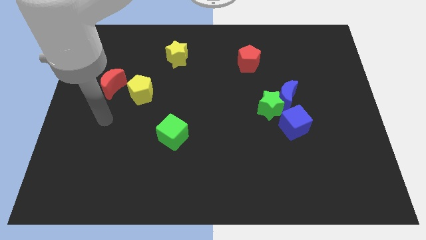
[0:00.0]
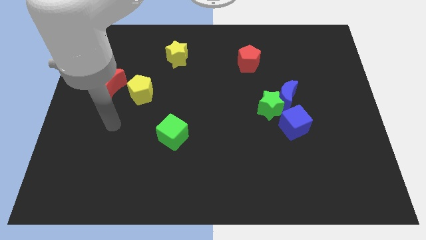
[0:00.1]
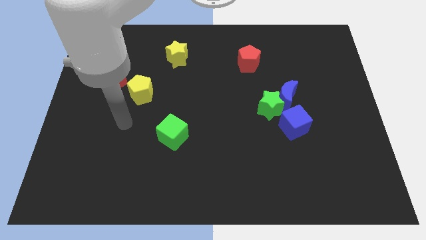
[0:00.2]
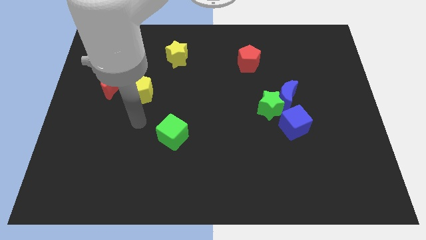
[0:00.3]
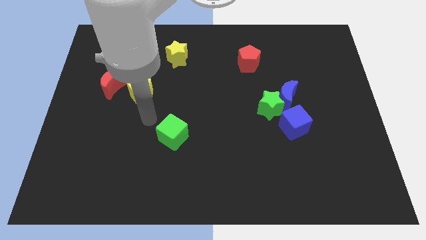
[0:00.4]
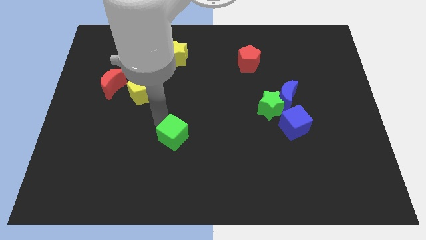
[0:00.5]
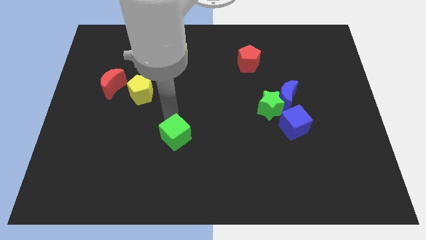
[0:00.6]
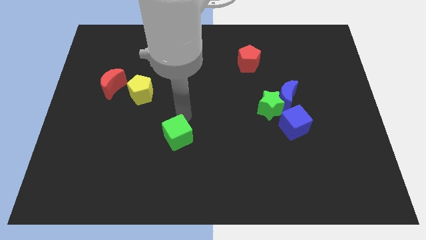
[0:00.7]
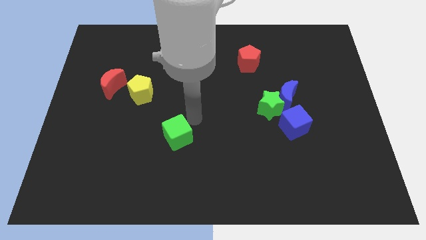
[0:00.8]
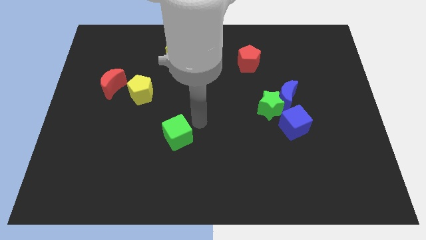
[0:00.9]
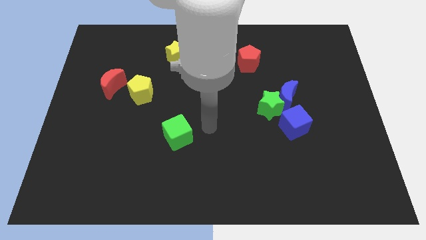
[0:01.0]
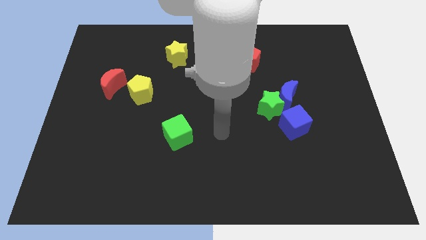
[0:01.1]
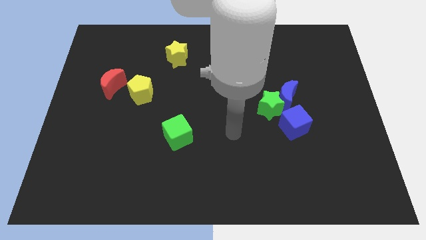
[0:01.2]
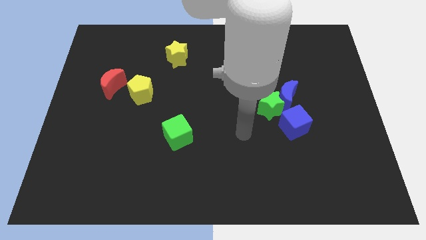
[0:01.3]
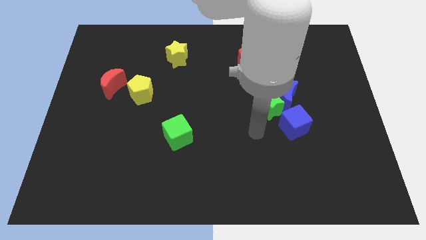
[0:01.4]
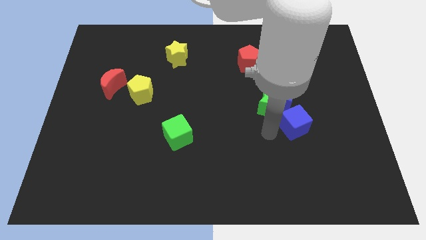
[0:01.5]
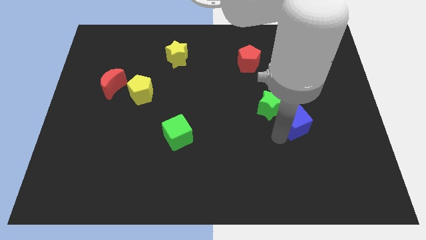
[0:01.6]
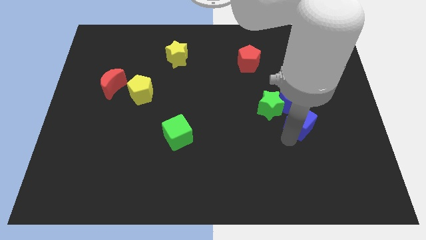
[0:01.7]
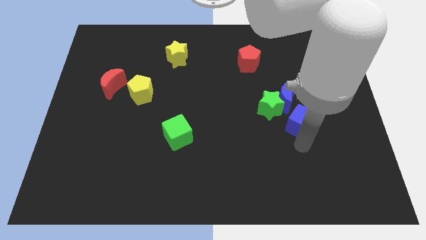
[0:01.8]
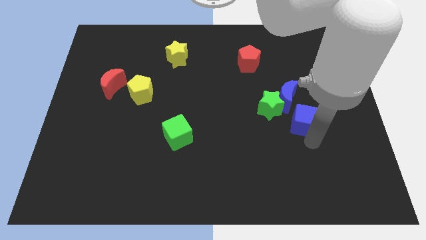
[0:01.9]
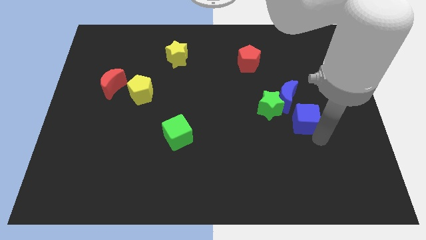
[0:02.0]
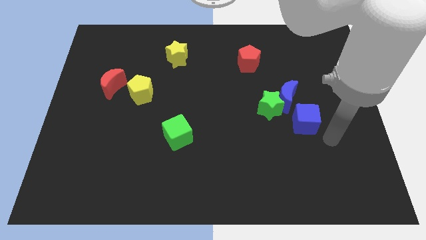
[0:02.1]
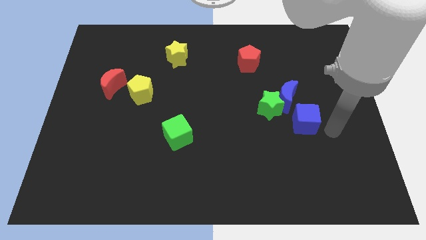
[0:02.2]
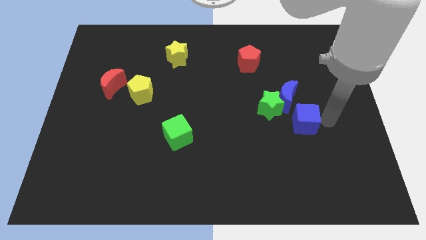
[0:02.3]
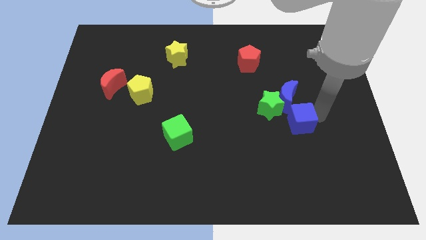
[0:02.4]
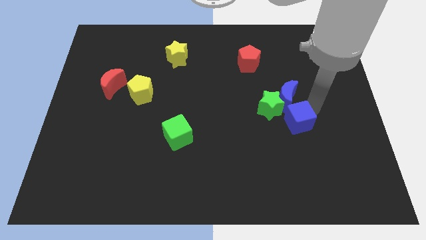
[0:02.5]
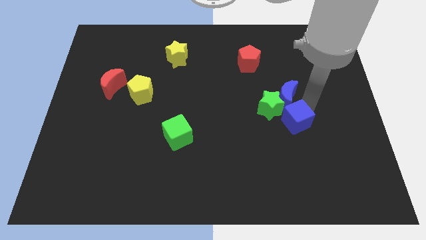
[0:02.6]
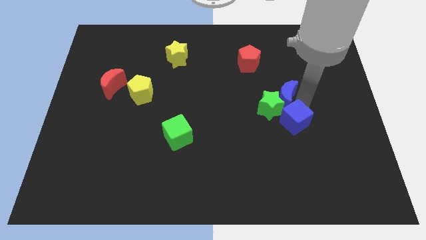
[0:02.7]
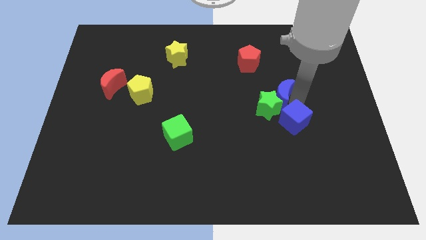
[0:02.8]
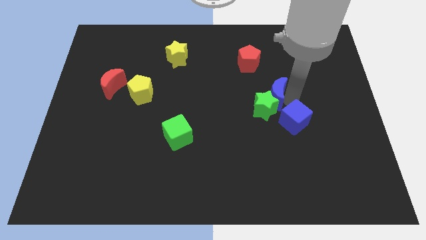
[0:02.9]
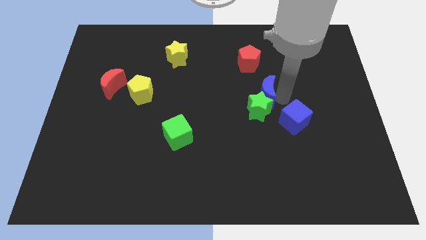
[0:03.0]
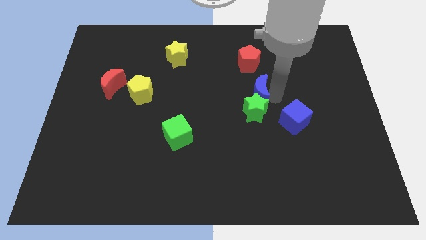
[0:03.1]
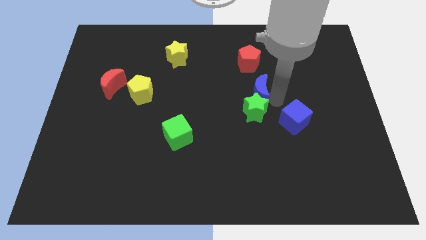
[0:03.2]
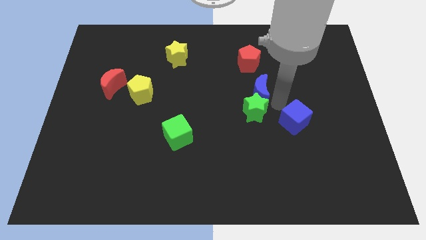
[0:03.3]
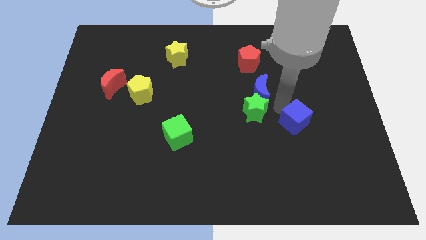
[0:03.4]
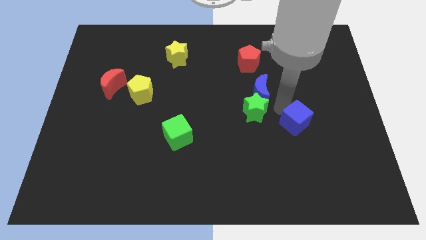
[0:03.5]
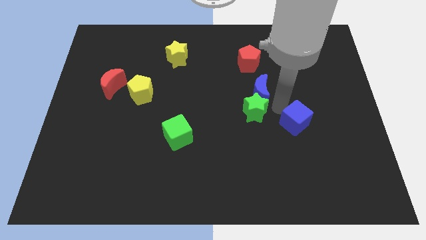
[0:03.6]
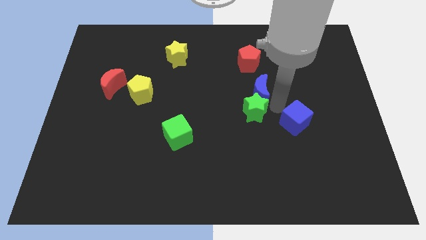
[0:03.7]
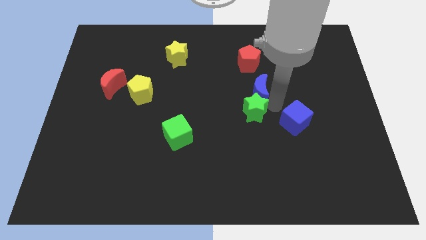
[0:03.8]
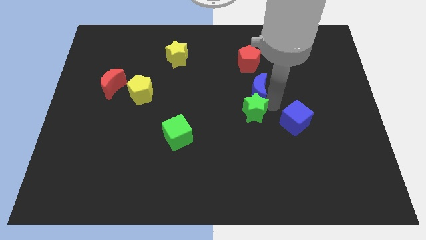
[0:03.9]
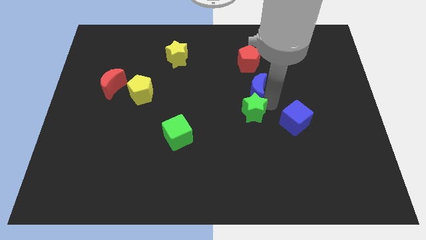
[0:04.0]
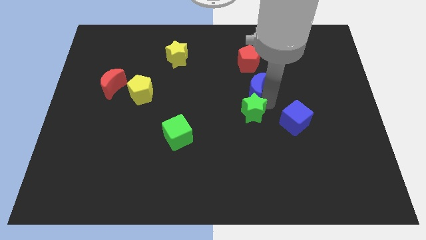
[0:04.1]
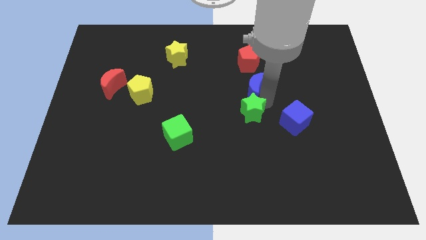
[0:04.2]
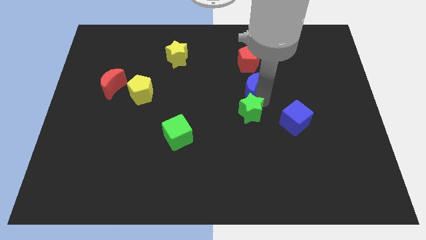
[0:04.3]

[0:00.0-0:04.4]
slightly push the blue moon up and to the left

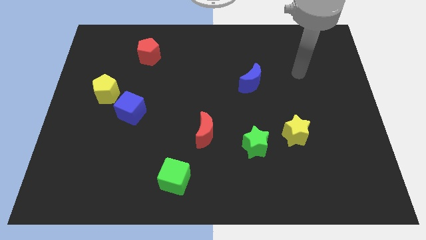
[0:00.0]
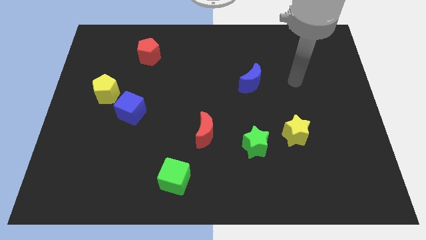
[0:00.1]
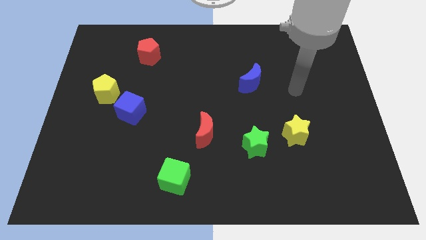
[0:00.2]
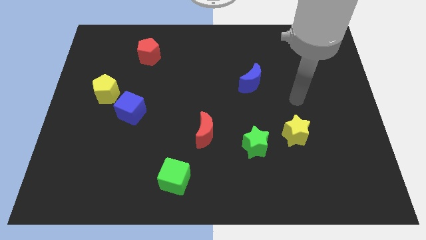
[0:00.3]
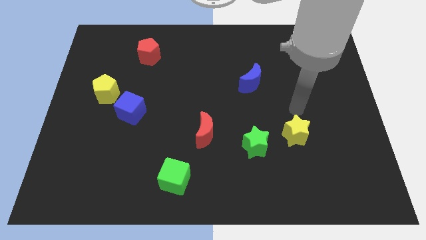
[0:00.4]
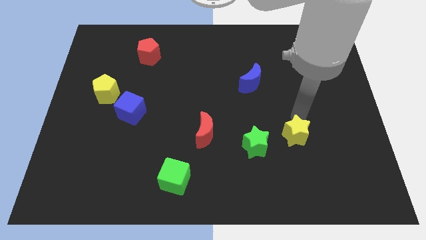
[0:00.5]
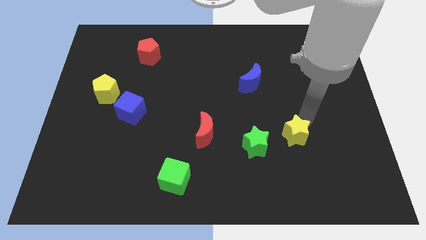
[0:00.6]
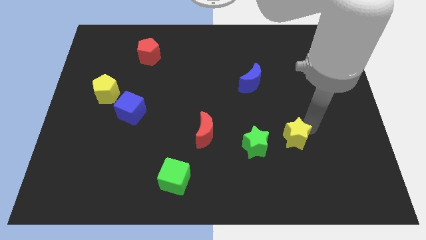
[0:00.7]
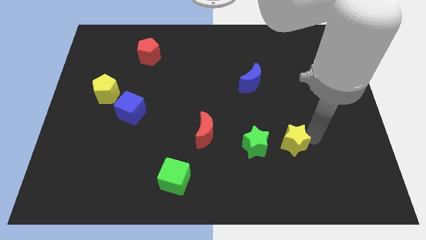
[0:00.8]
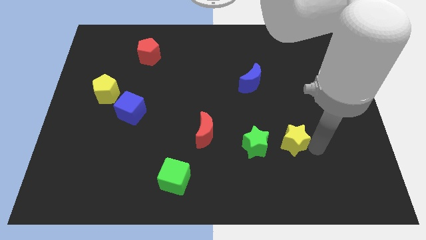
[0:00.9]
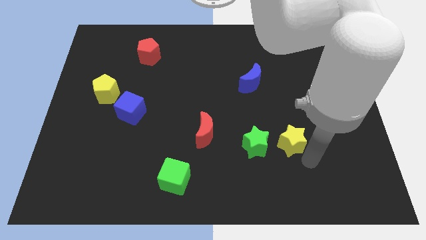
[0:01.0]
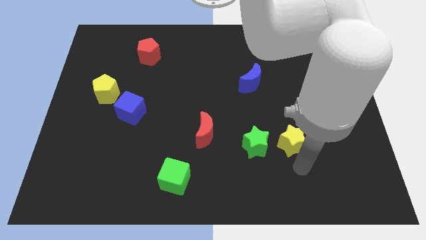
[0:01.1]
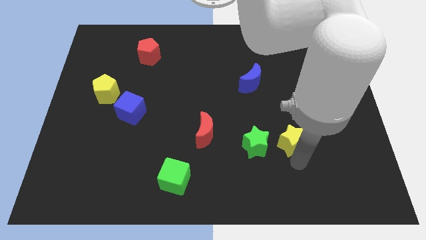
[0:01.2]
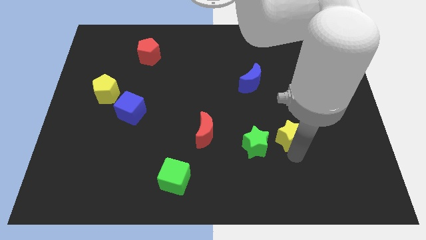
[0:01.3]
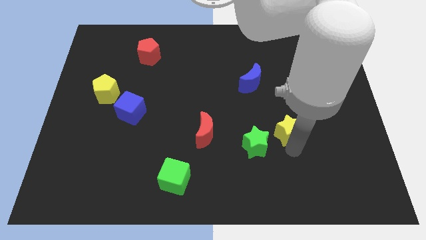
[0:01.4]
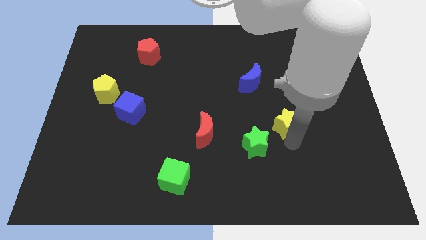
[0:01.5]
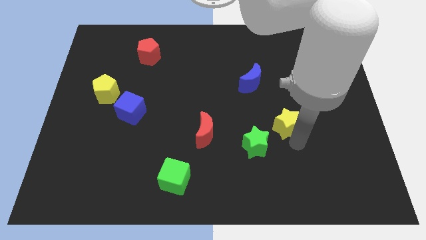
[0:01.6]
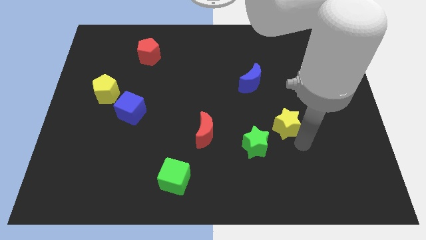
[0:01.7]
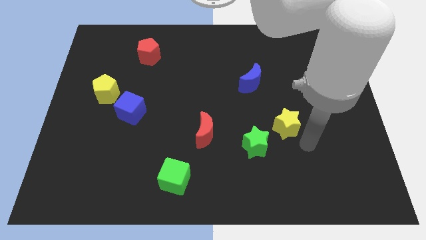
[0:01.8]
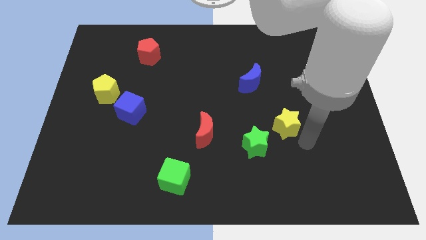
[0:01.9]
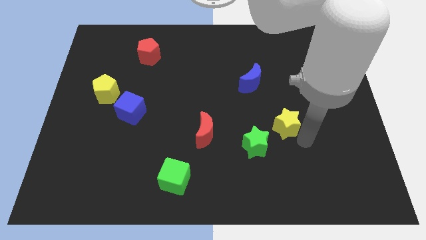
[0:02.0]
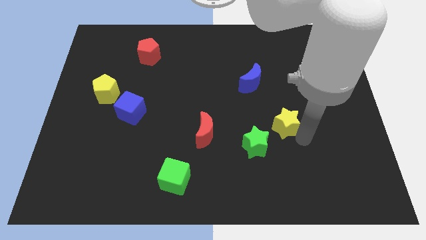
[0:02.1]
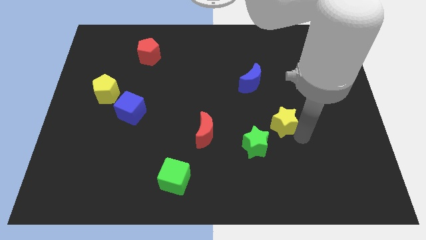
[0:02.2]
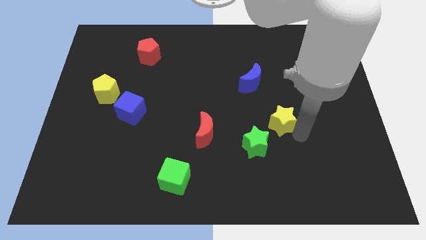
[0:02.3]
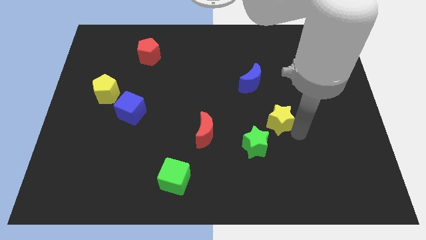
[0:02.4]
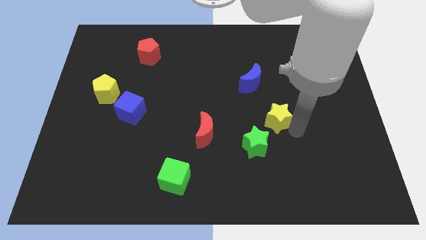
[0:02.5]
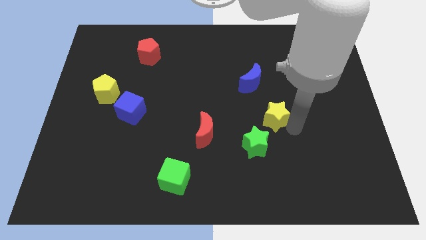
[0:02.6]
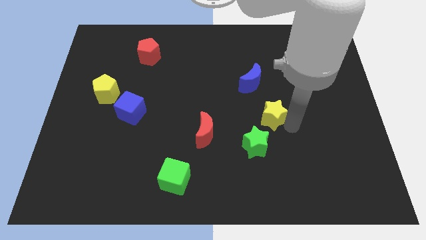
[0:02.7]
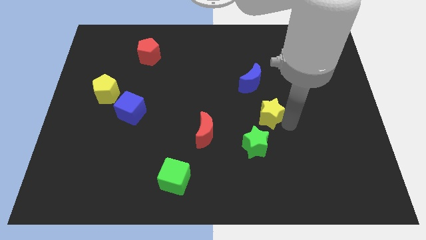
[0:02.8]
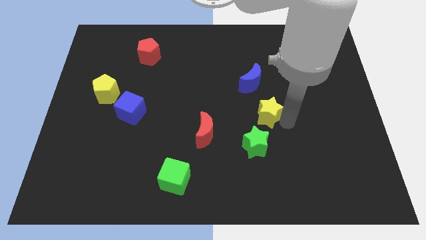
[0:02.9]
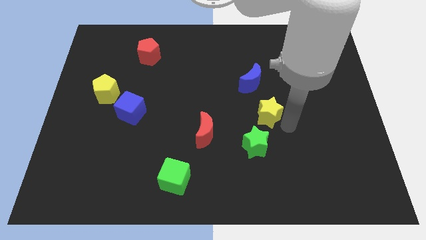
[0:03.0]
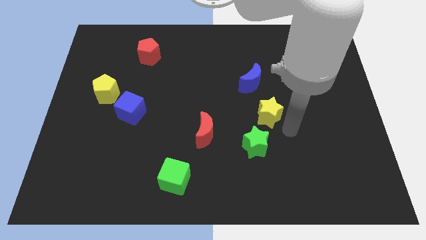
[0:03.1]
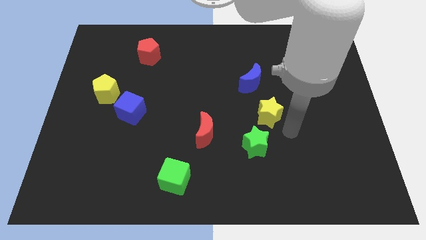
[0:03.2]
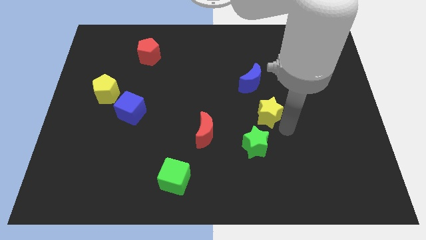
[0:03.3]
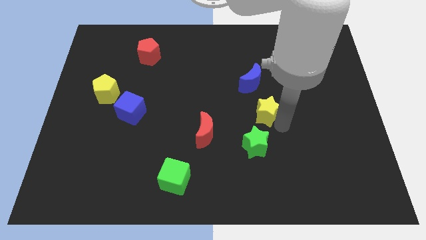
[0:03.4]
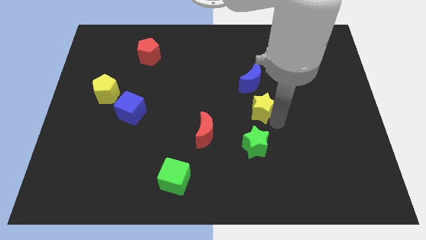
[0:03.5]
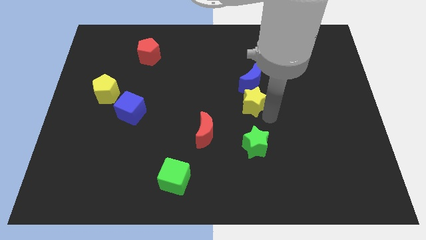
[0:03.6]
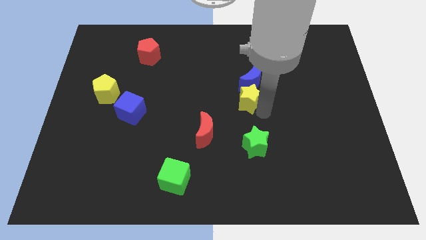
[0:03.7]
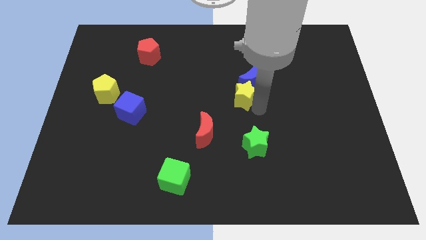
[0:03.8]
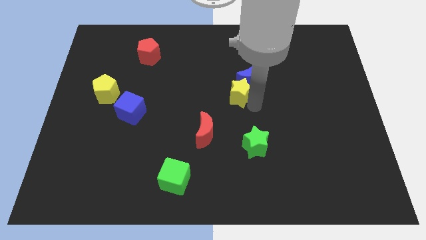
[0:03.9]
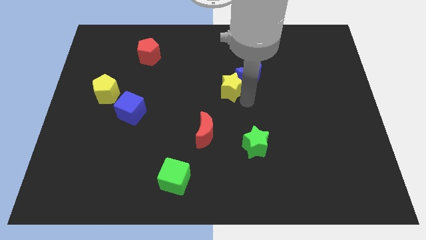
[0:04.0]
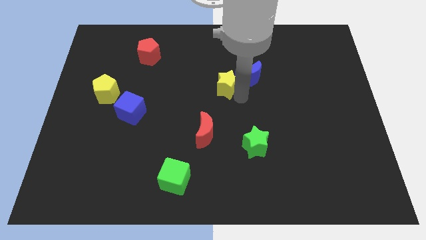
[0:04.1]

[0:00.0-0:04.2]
move the yellow star up and left diagonally
